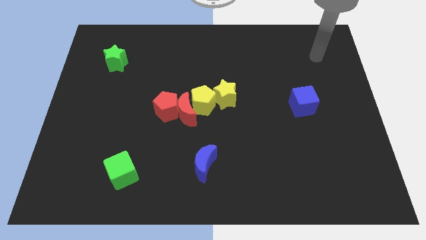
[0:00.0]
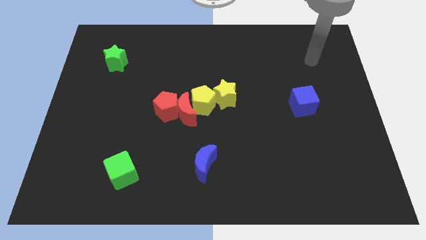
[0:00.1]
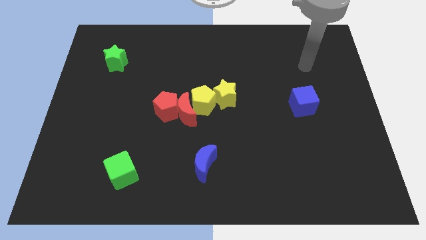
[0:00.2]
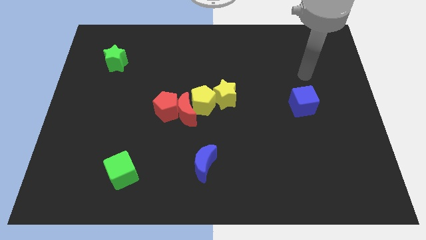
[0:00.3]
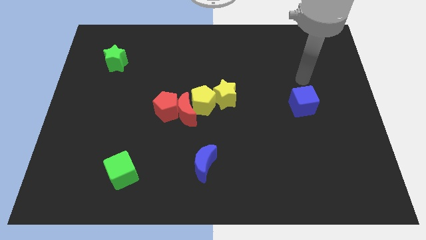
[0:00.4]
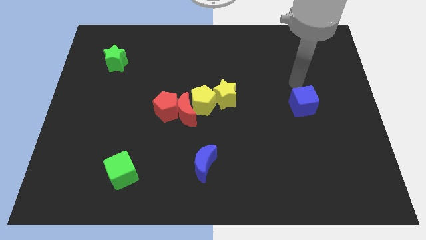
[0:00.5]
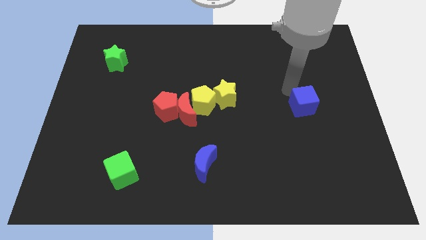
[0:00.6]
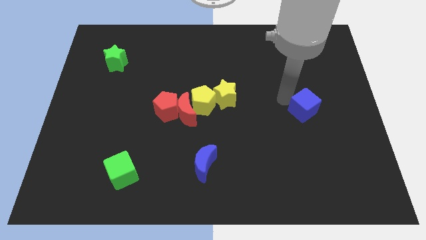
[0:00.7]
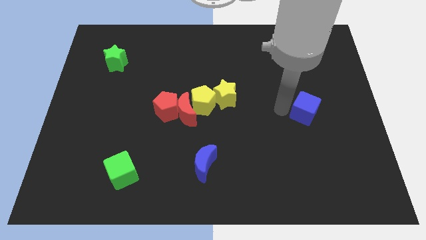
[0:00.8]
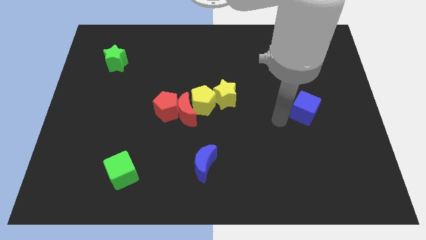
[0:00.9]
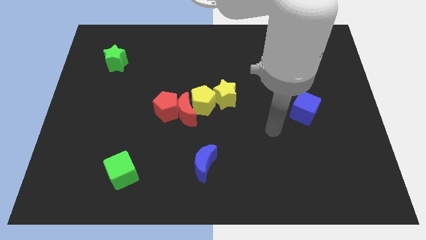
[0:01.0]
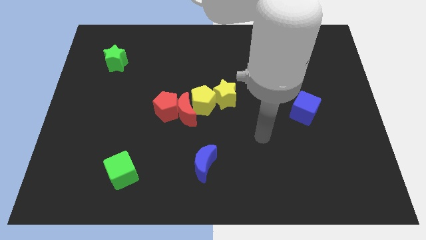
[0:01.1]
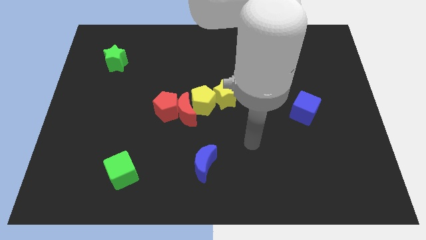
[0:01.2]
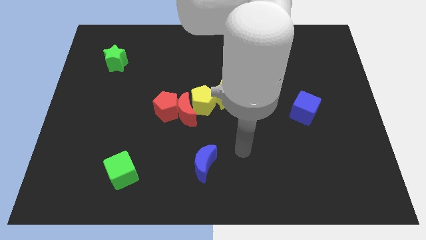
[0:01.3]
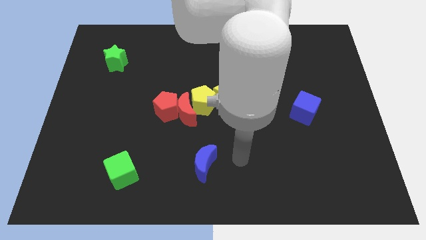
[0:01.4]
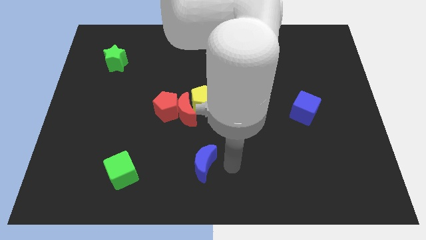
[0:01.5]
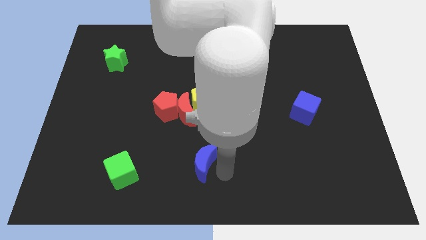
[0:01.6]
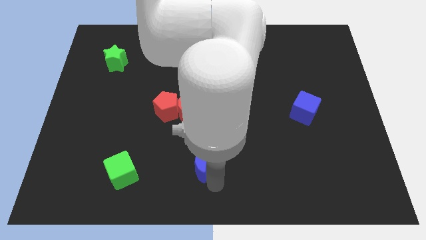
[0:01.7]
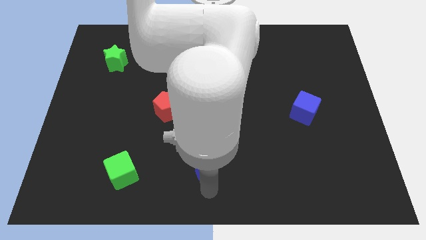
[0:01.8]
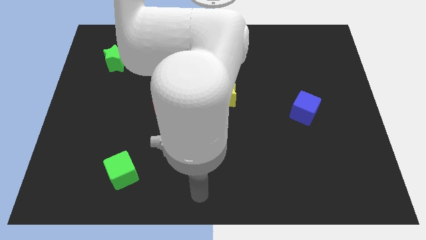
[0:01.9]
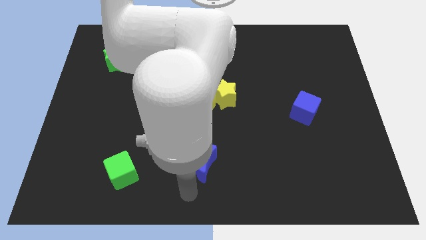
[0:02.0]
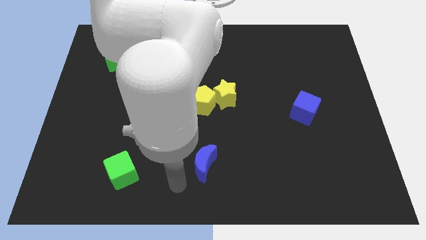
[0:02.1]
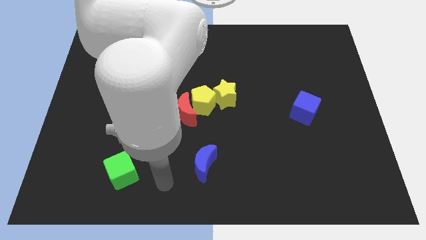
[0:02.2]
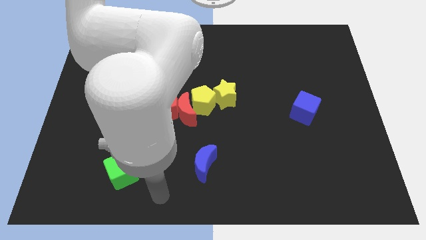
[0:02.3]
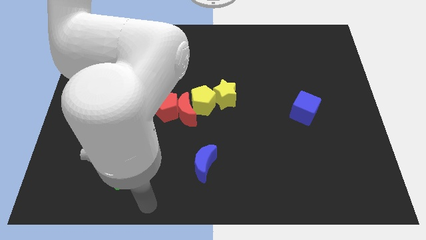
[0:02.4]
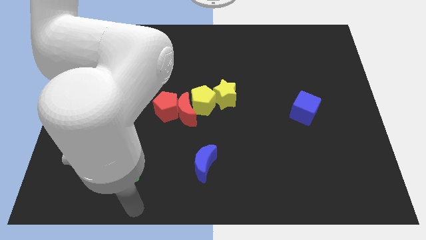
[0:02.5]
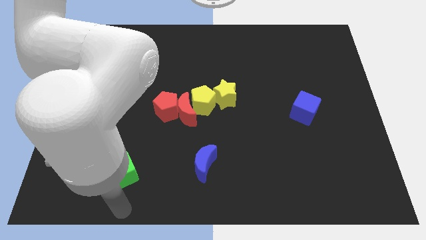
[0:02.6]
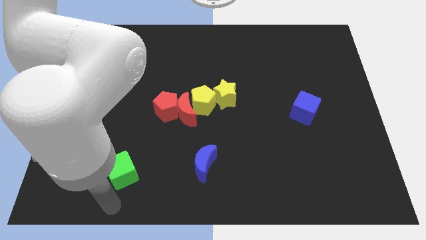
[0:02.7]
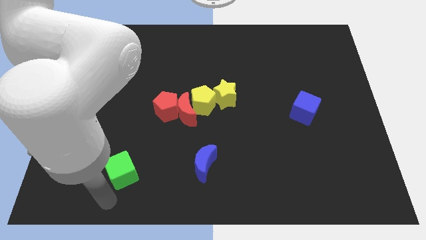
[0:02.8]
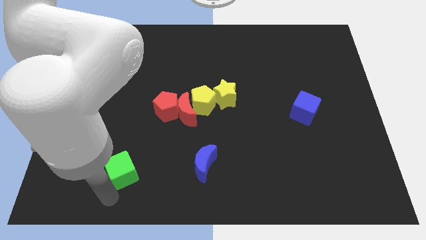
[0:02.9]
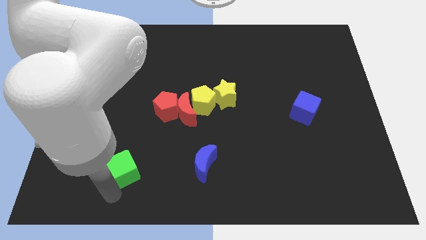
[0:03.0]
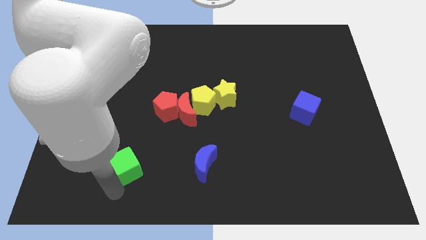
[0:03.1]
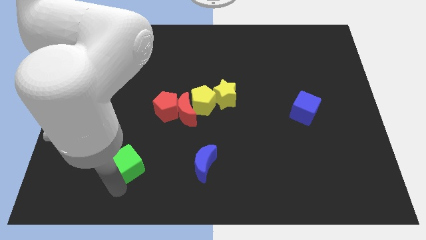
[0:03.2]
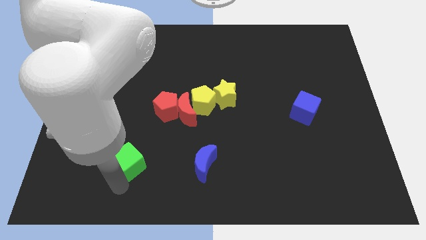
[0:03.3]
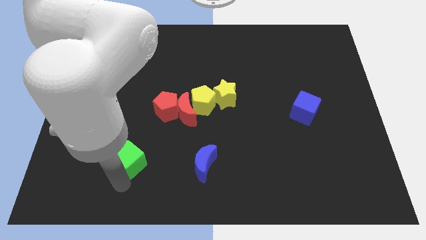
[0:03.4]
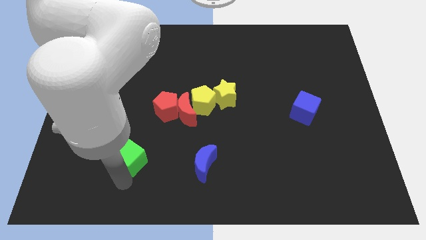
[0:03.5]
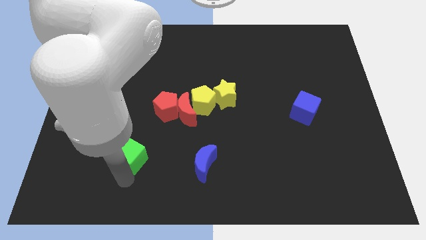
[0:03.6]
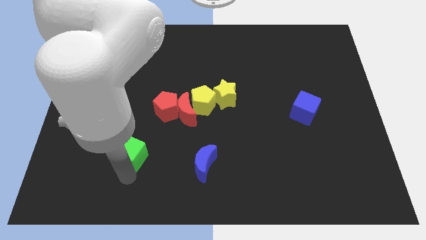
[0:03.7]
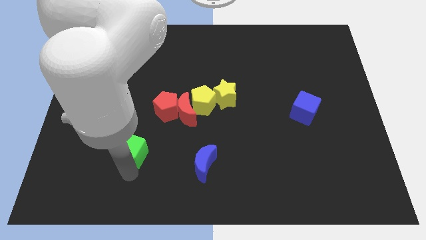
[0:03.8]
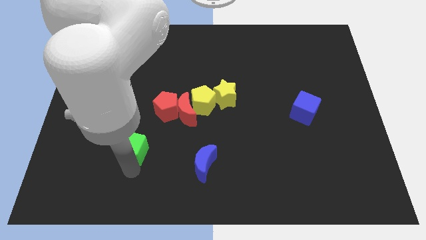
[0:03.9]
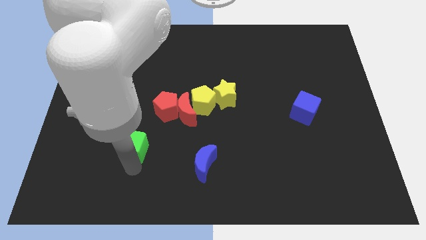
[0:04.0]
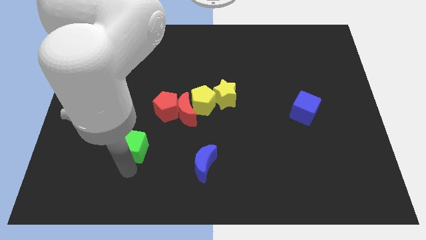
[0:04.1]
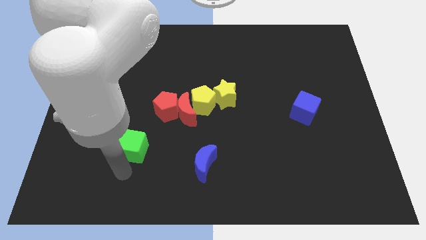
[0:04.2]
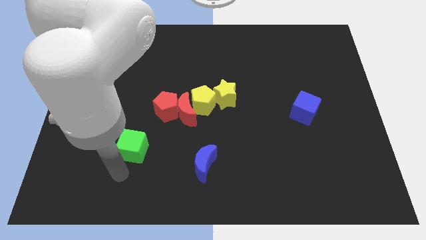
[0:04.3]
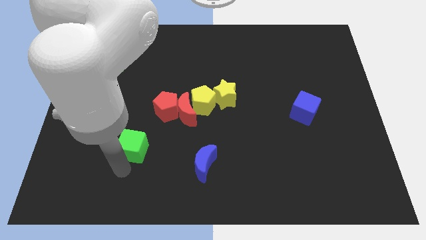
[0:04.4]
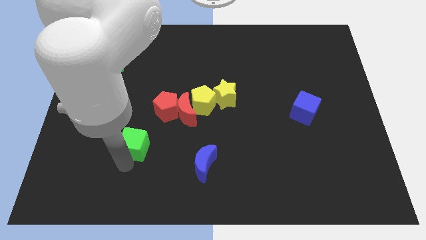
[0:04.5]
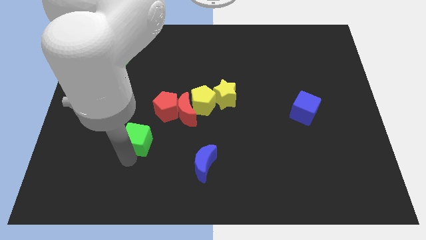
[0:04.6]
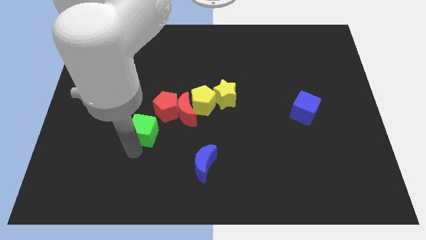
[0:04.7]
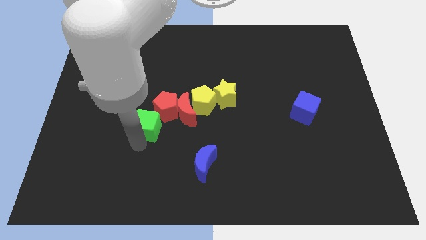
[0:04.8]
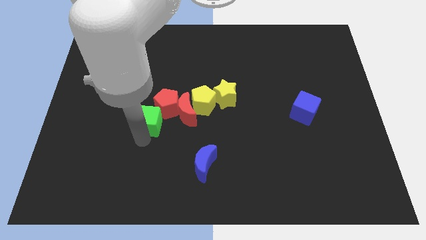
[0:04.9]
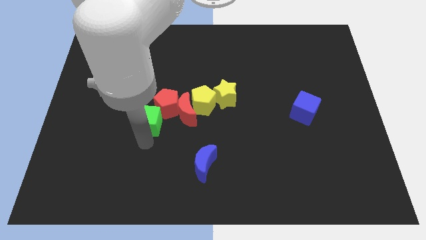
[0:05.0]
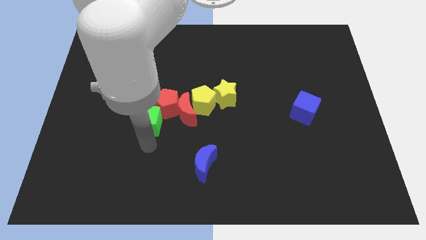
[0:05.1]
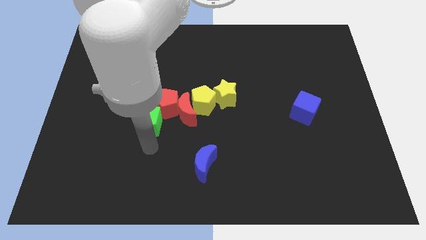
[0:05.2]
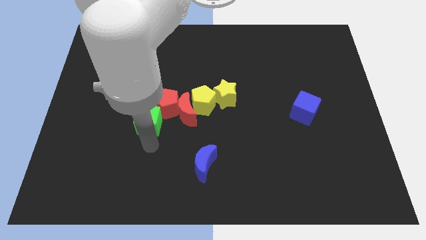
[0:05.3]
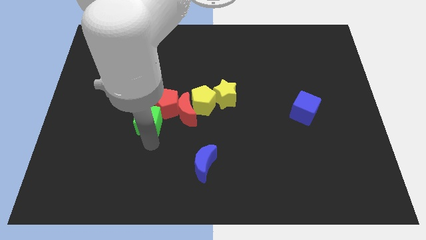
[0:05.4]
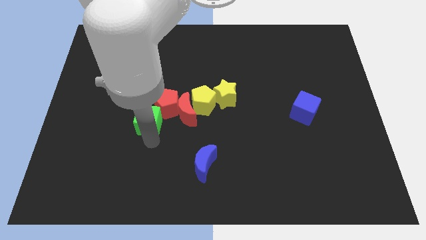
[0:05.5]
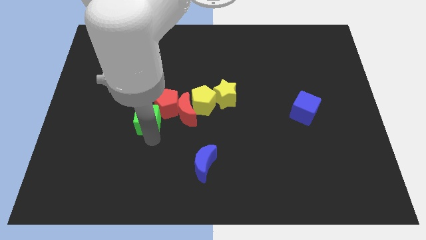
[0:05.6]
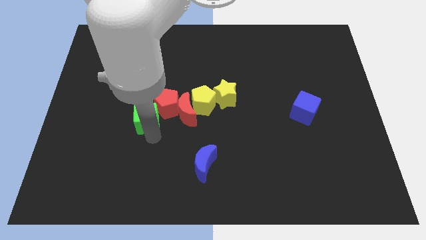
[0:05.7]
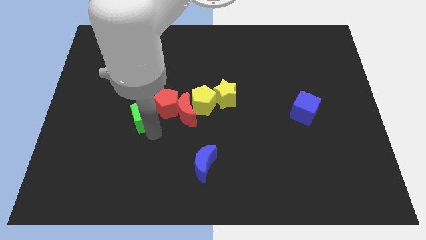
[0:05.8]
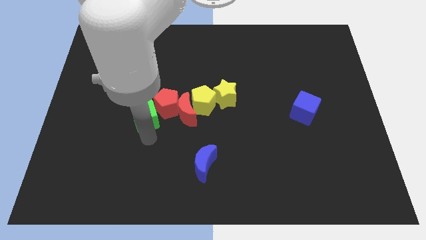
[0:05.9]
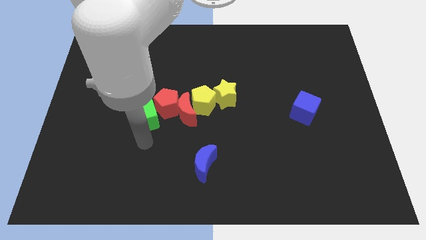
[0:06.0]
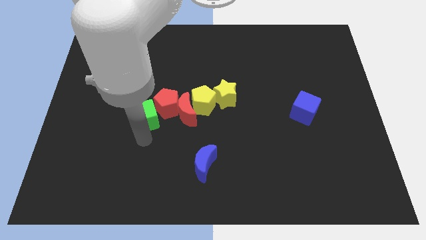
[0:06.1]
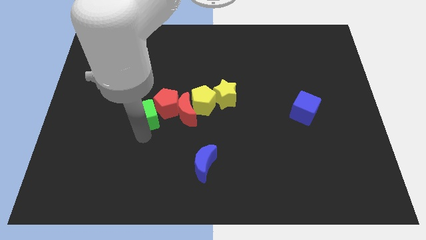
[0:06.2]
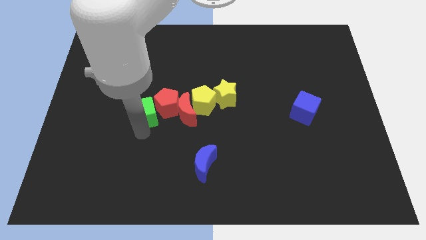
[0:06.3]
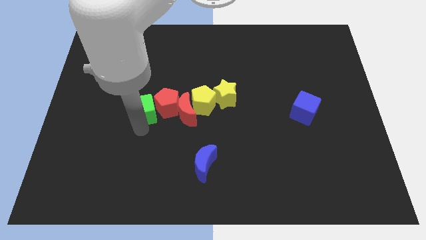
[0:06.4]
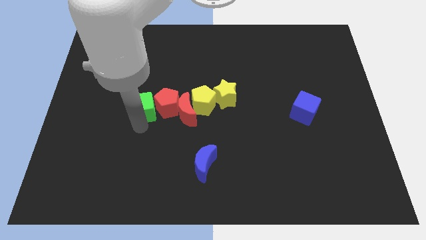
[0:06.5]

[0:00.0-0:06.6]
move the green cube diagonally up and to the left of the red pentagon

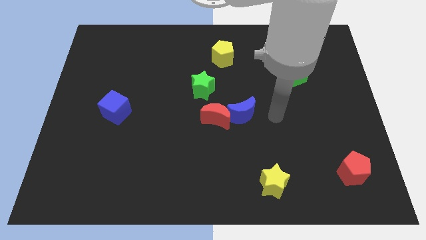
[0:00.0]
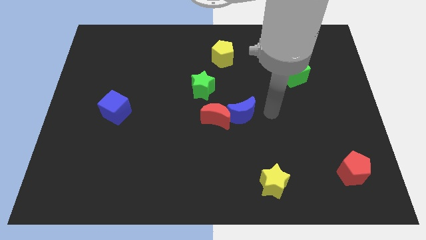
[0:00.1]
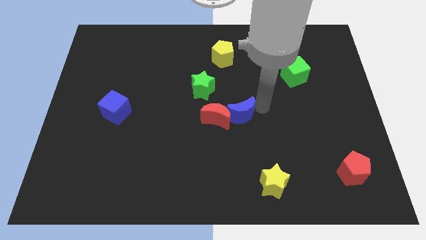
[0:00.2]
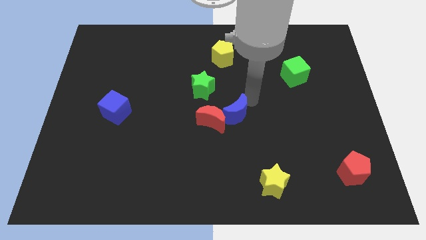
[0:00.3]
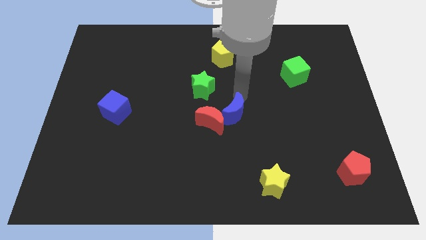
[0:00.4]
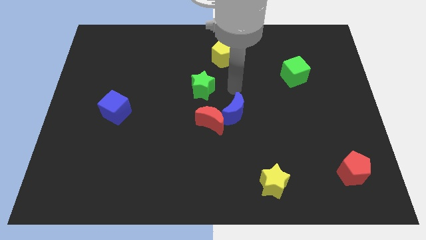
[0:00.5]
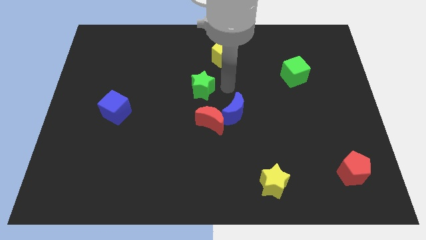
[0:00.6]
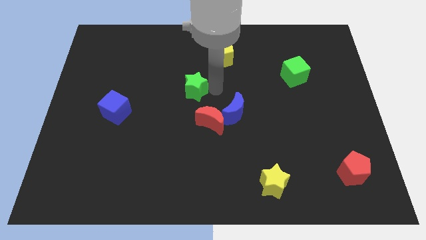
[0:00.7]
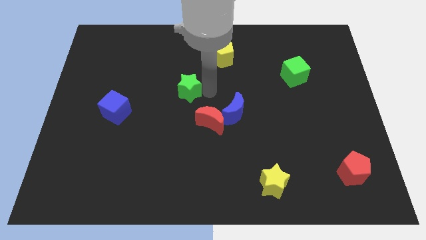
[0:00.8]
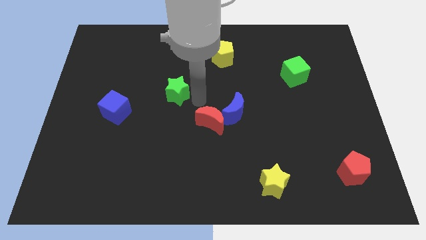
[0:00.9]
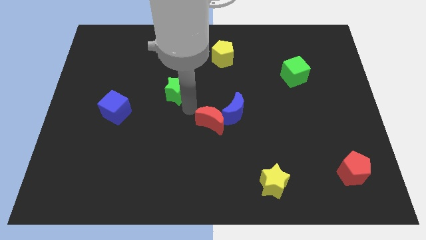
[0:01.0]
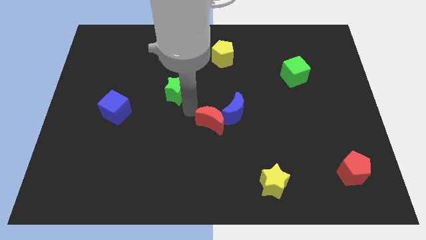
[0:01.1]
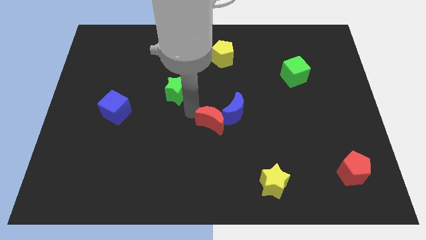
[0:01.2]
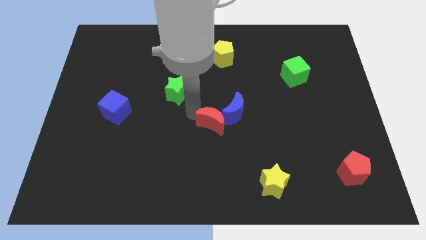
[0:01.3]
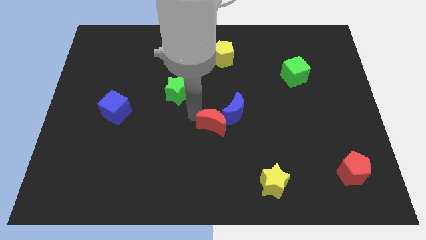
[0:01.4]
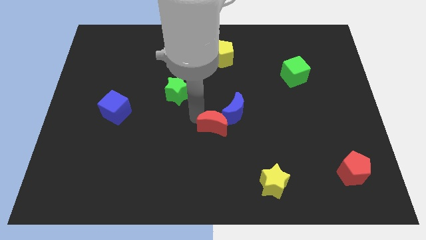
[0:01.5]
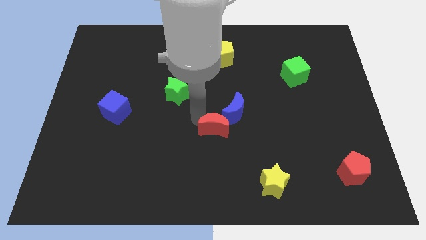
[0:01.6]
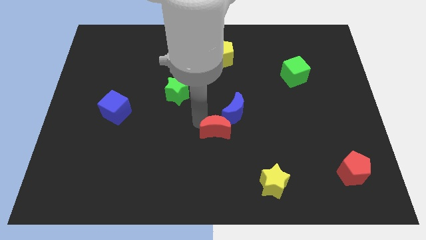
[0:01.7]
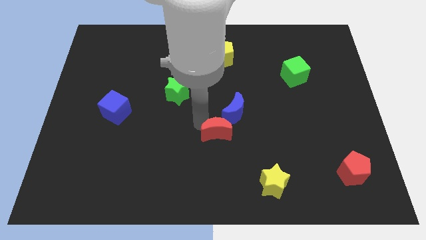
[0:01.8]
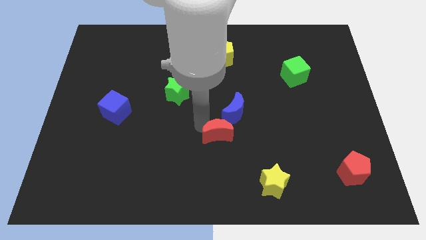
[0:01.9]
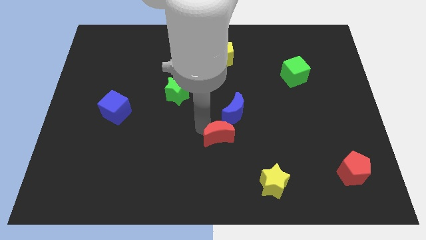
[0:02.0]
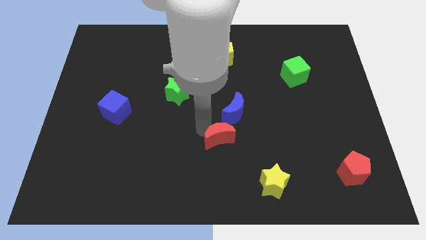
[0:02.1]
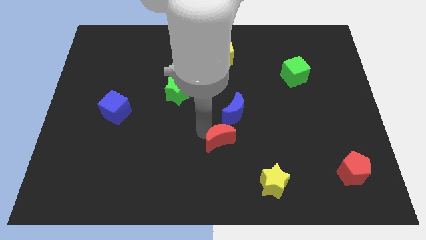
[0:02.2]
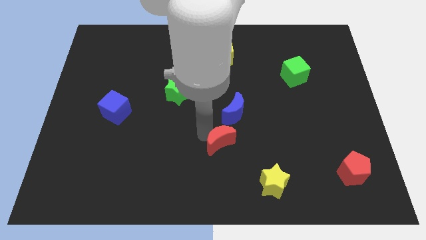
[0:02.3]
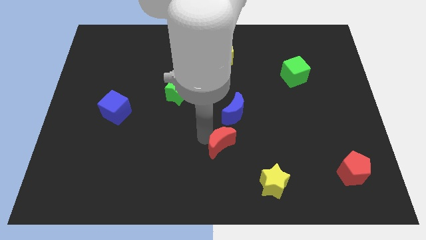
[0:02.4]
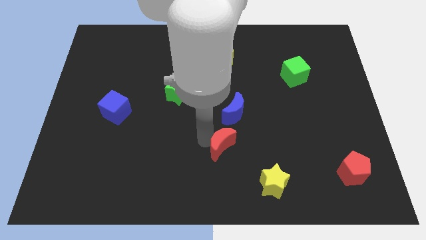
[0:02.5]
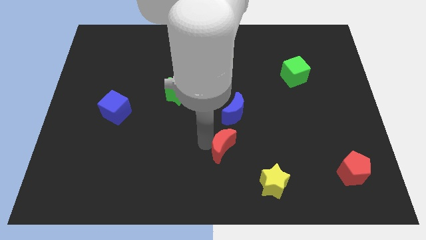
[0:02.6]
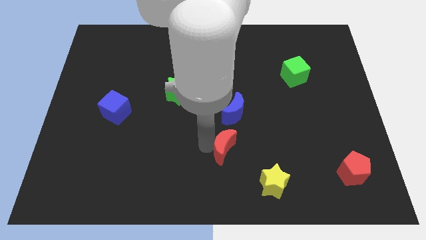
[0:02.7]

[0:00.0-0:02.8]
slide the red moon diagonally up and to the left of the yellow star
